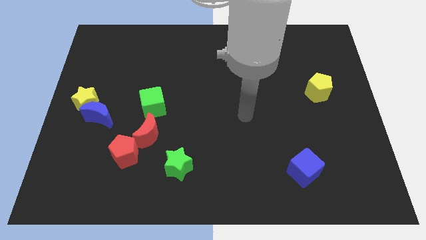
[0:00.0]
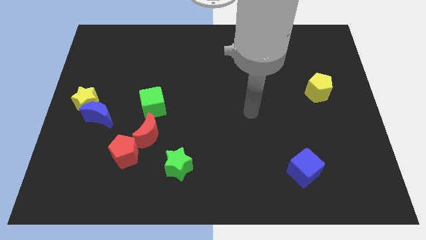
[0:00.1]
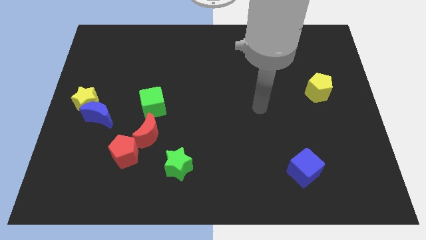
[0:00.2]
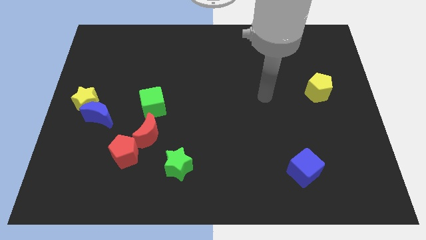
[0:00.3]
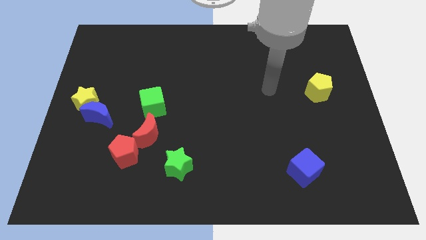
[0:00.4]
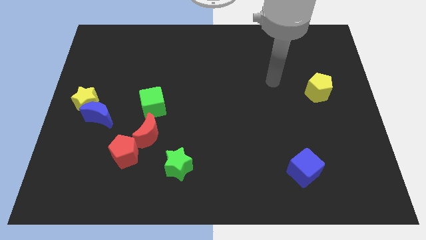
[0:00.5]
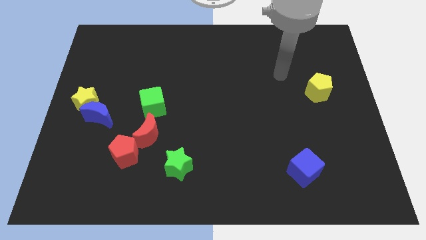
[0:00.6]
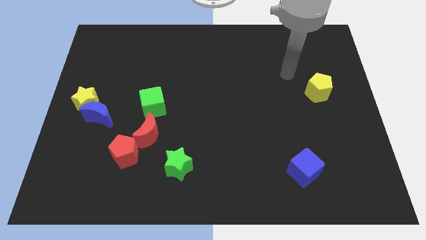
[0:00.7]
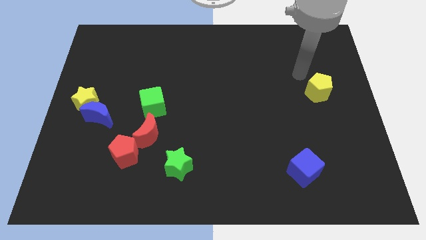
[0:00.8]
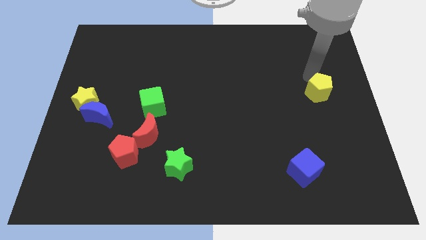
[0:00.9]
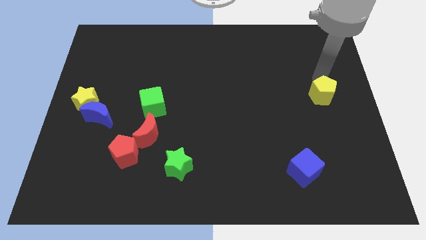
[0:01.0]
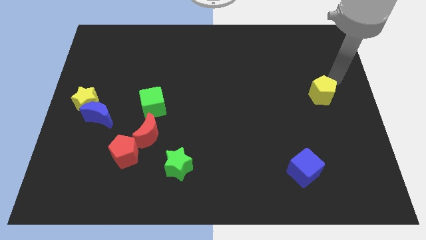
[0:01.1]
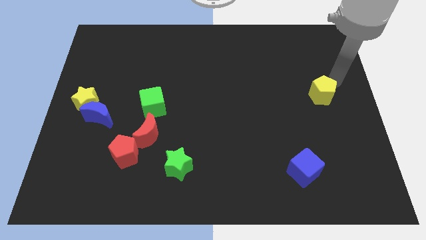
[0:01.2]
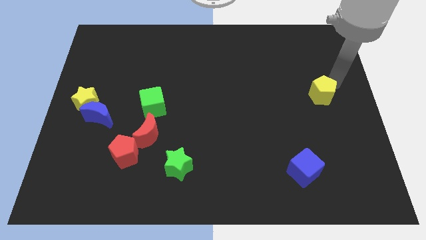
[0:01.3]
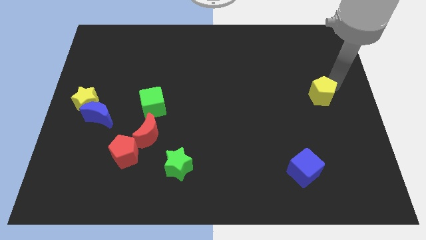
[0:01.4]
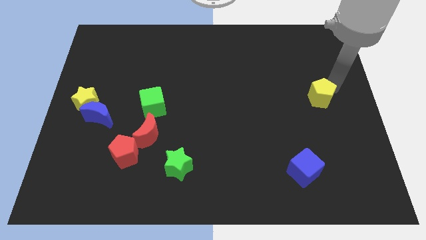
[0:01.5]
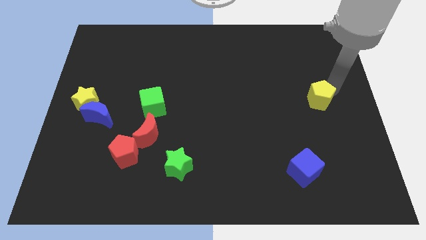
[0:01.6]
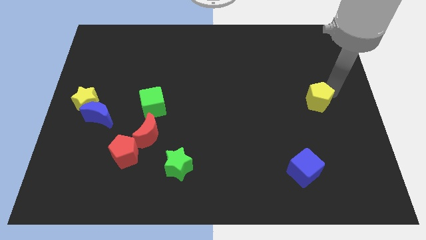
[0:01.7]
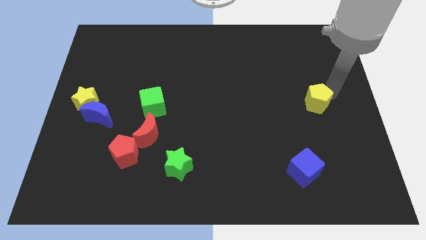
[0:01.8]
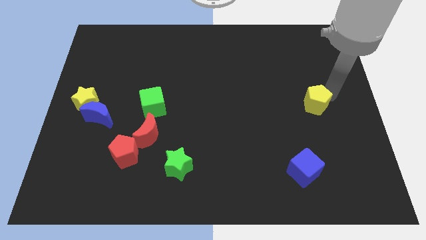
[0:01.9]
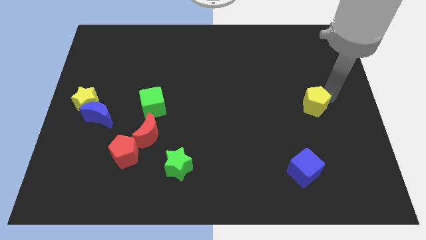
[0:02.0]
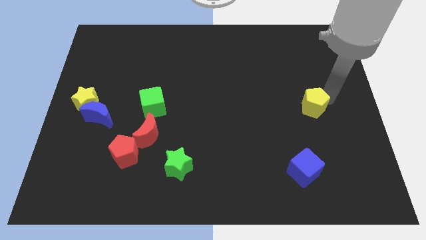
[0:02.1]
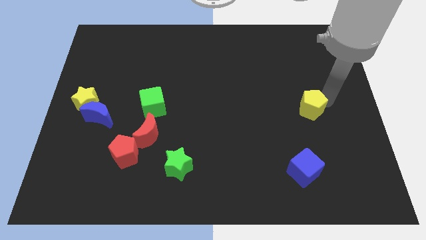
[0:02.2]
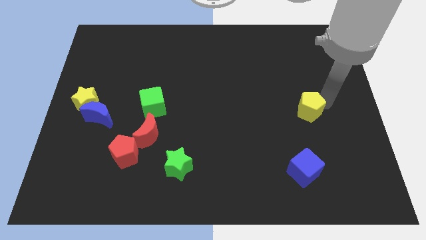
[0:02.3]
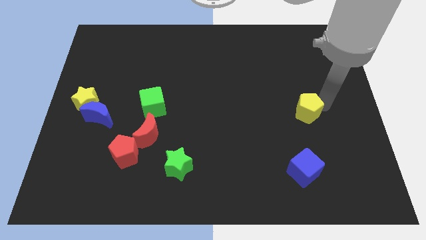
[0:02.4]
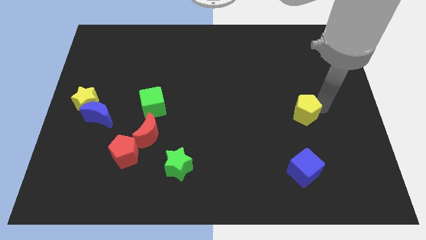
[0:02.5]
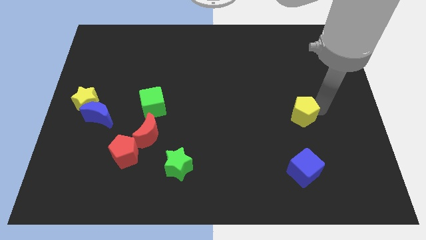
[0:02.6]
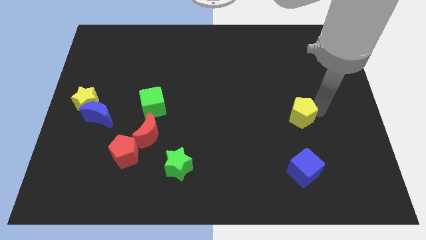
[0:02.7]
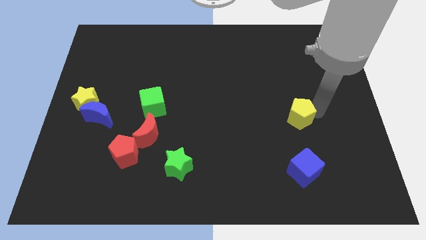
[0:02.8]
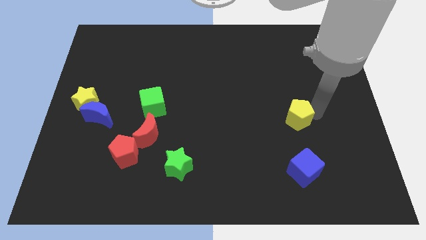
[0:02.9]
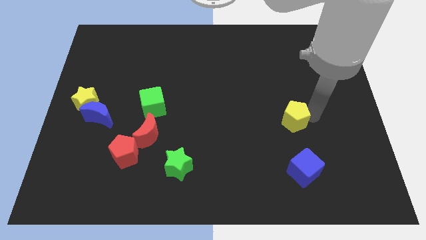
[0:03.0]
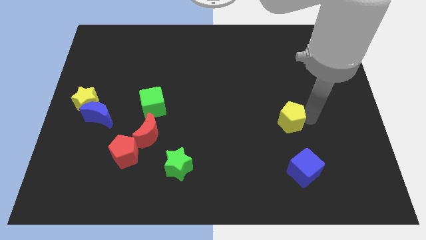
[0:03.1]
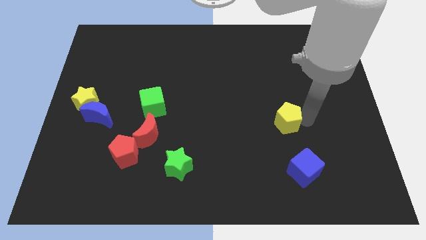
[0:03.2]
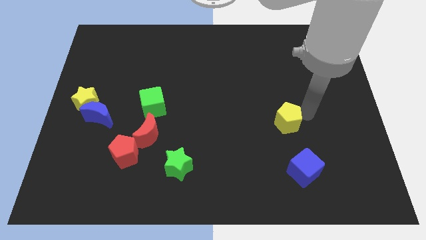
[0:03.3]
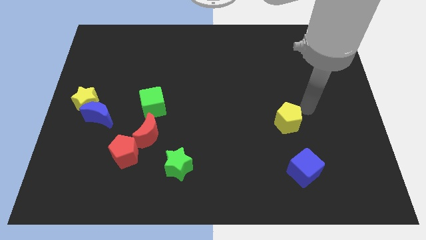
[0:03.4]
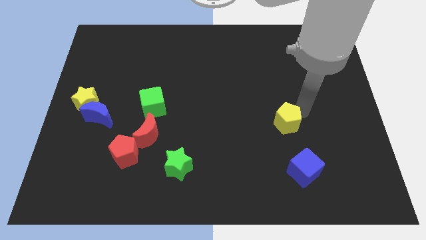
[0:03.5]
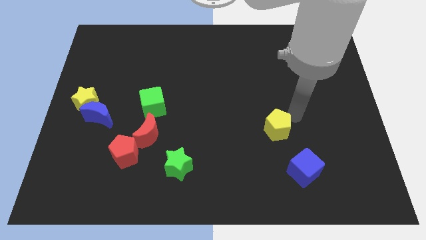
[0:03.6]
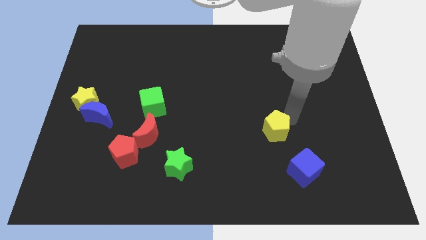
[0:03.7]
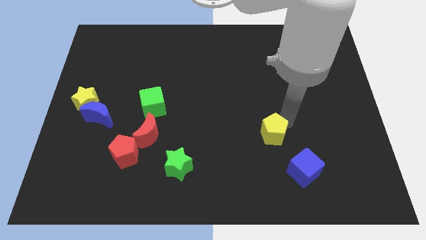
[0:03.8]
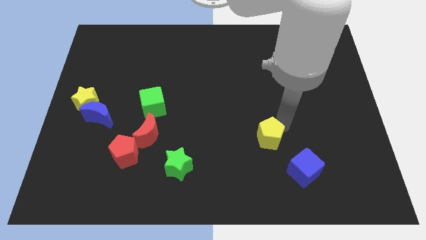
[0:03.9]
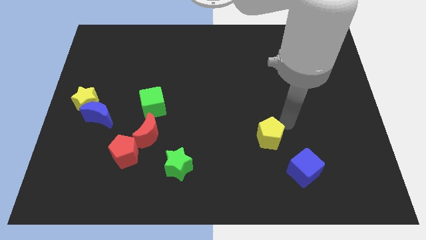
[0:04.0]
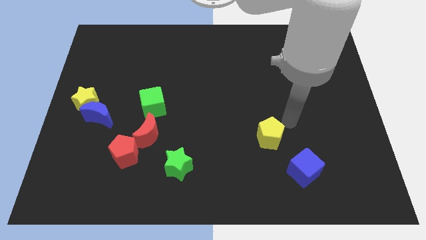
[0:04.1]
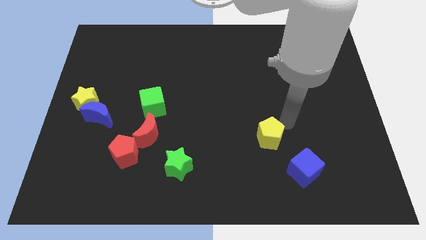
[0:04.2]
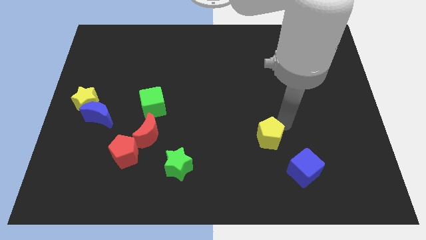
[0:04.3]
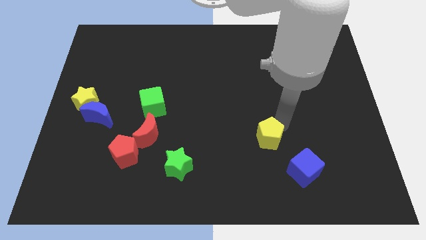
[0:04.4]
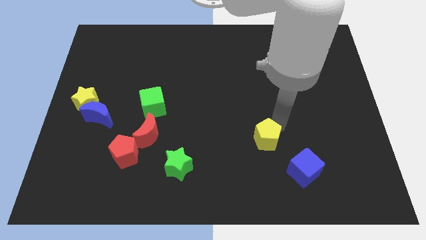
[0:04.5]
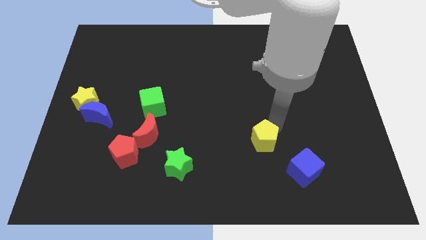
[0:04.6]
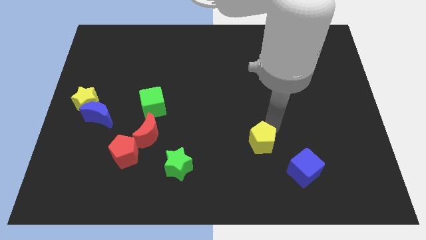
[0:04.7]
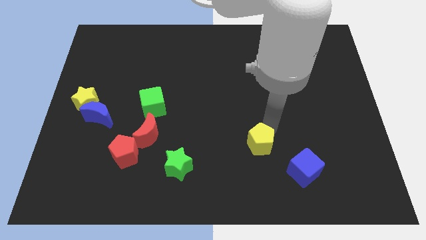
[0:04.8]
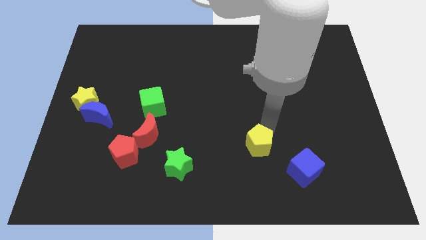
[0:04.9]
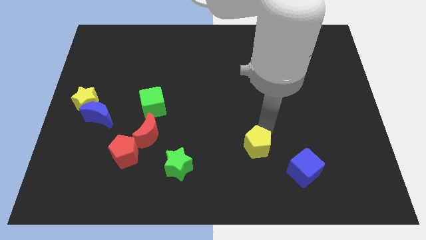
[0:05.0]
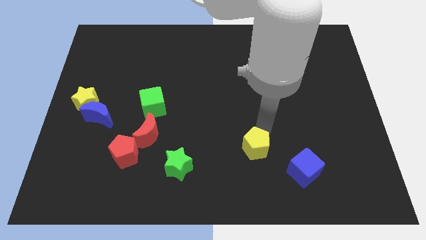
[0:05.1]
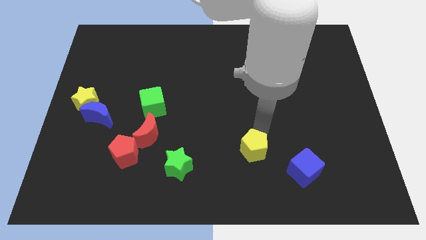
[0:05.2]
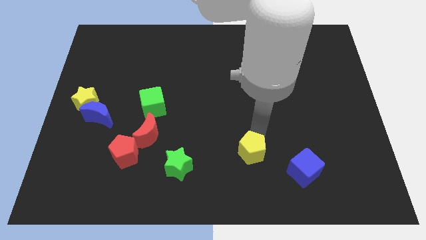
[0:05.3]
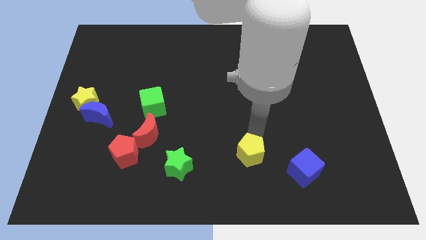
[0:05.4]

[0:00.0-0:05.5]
slide the yellow pentagon just right of the green star

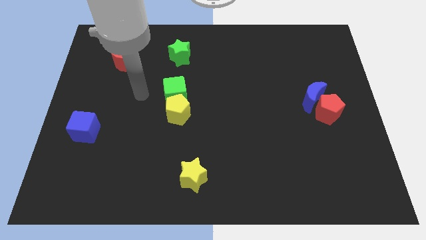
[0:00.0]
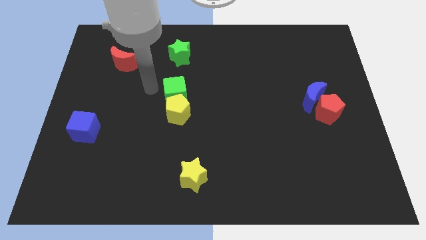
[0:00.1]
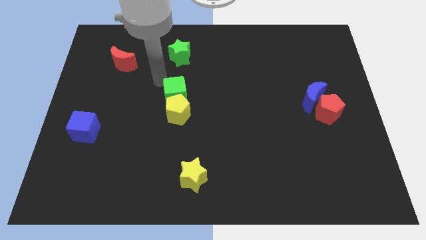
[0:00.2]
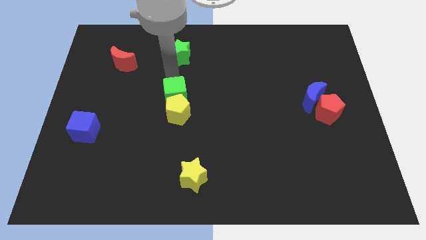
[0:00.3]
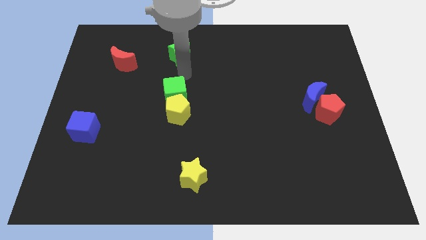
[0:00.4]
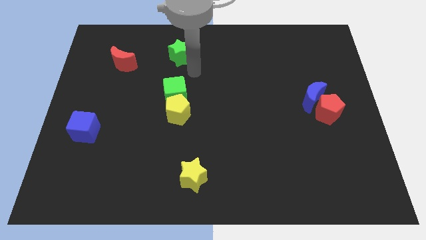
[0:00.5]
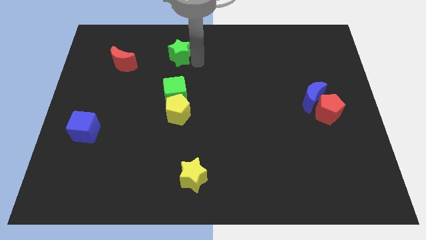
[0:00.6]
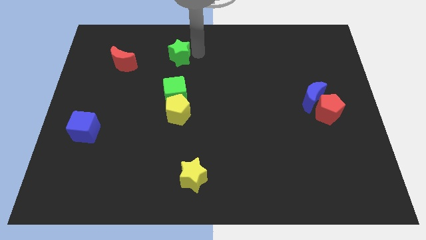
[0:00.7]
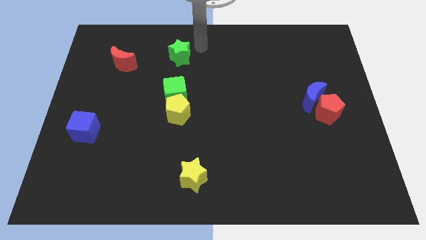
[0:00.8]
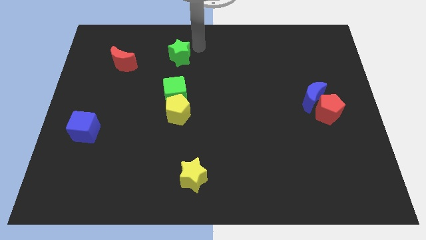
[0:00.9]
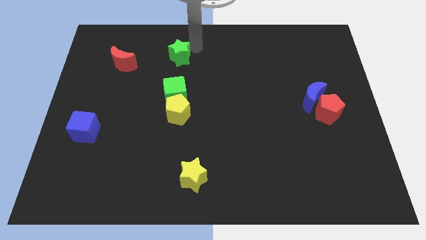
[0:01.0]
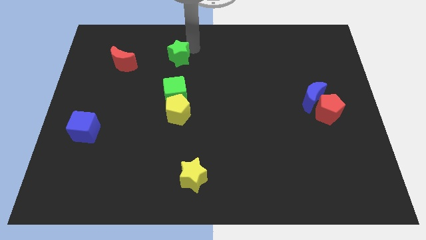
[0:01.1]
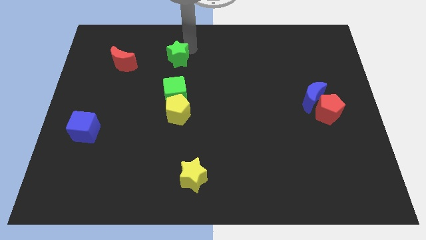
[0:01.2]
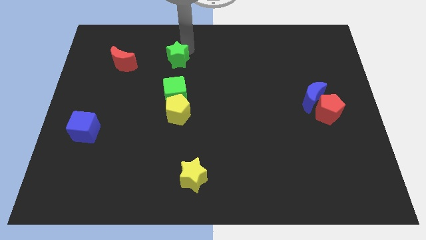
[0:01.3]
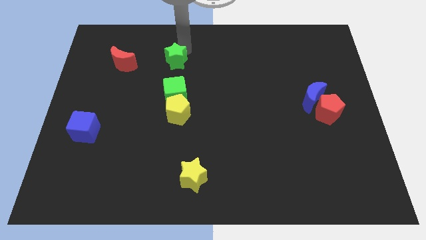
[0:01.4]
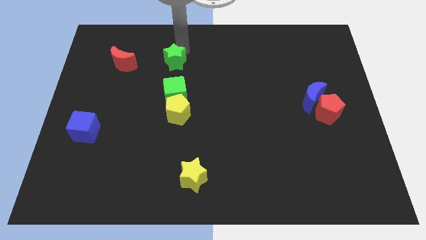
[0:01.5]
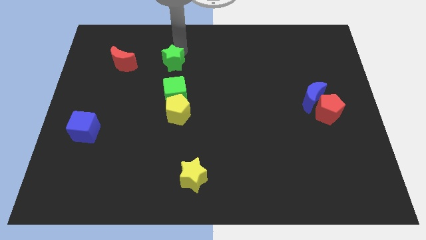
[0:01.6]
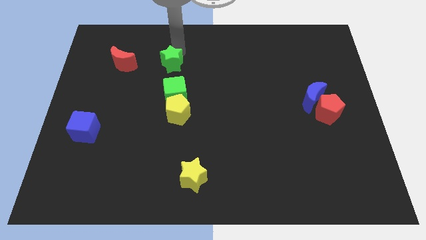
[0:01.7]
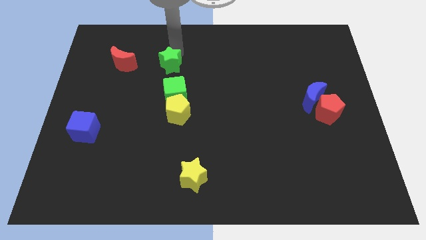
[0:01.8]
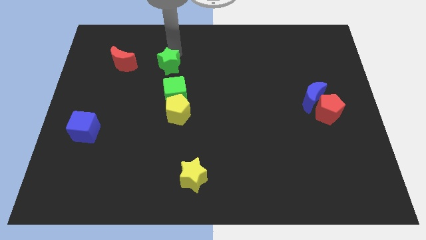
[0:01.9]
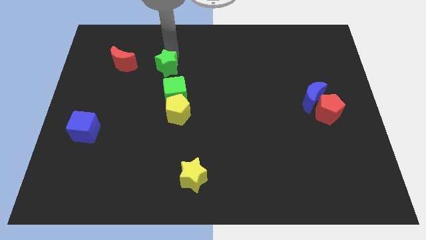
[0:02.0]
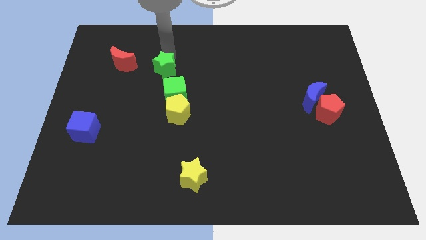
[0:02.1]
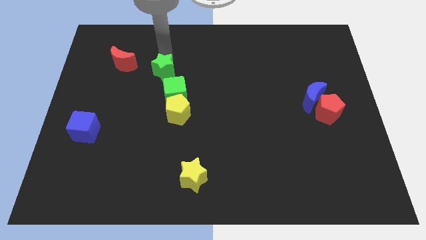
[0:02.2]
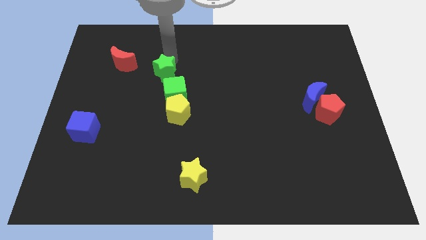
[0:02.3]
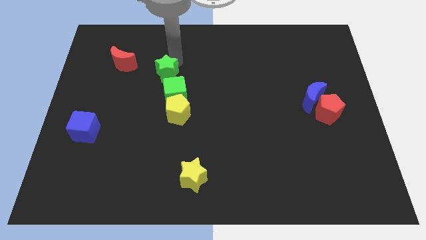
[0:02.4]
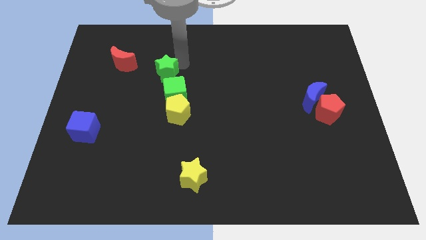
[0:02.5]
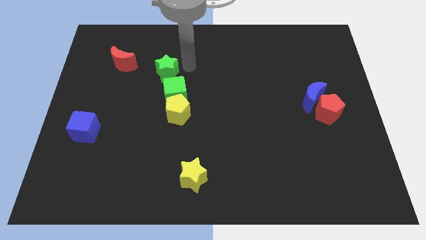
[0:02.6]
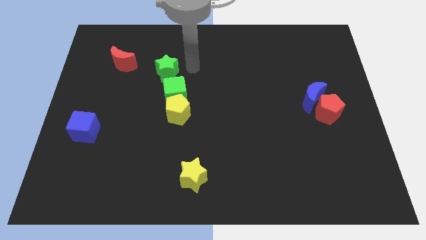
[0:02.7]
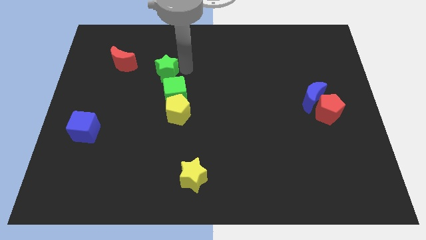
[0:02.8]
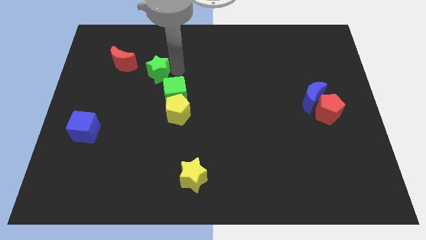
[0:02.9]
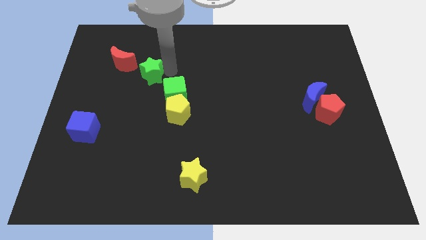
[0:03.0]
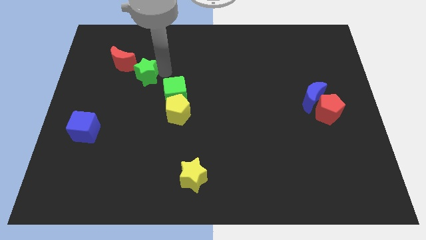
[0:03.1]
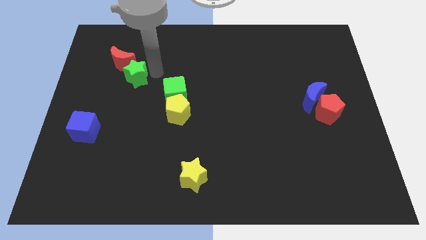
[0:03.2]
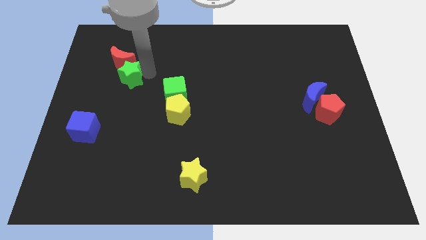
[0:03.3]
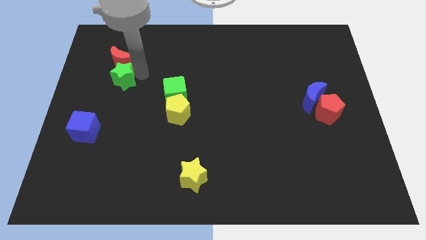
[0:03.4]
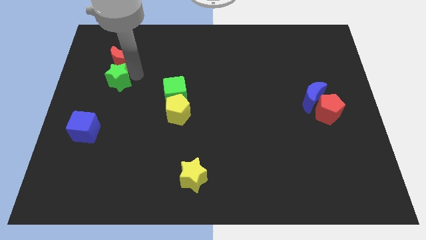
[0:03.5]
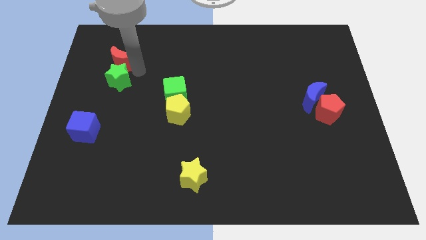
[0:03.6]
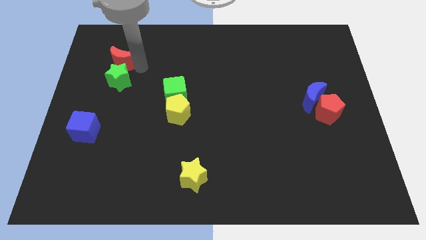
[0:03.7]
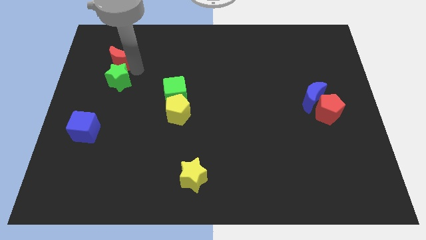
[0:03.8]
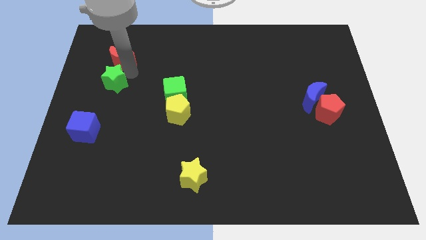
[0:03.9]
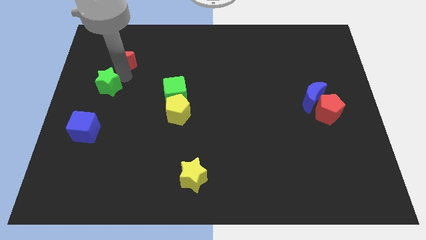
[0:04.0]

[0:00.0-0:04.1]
put the green star to the top side of the blue cube
